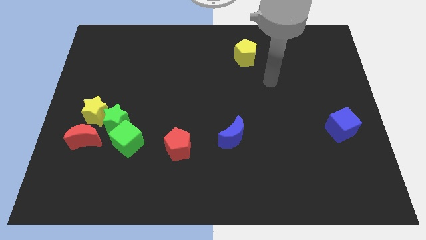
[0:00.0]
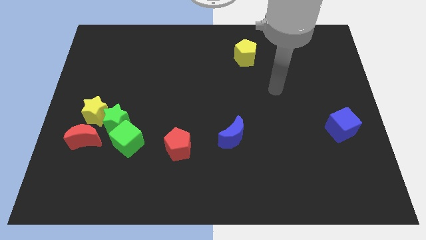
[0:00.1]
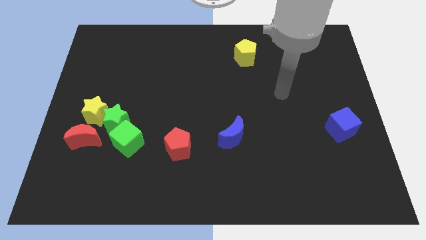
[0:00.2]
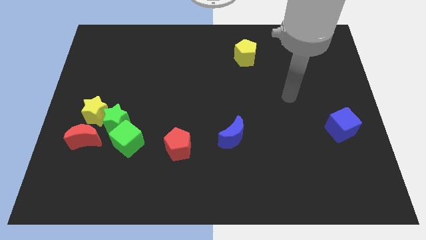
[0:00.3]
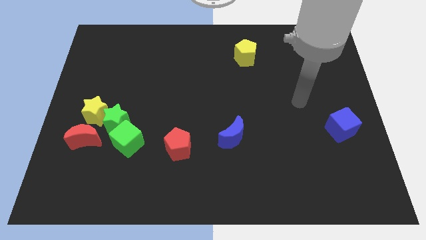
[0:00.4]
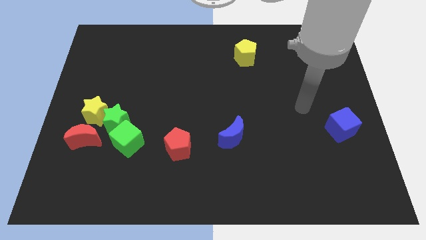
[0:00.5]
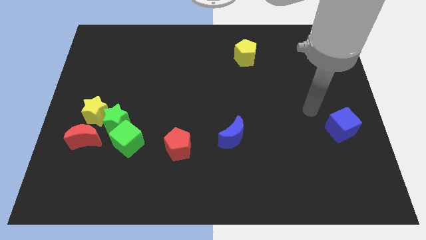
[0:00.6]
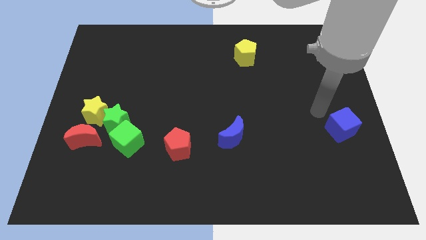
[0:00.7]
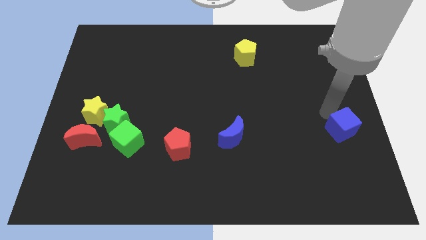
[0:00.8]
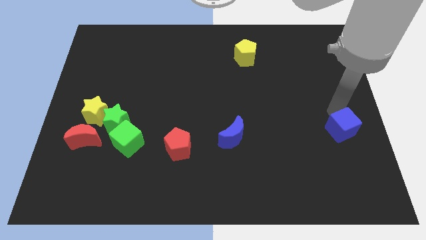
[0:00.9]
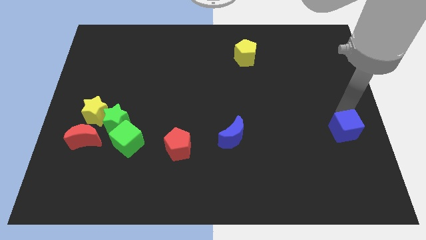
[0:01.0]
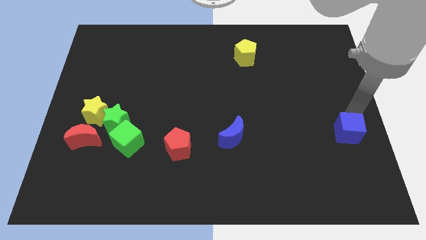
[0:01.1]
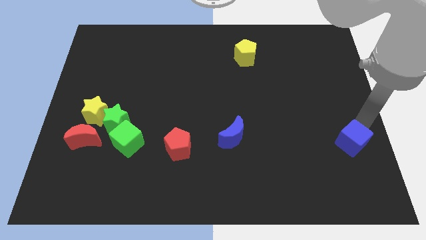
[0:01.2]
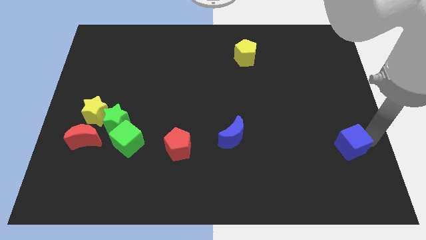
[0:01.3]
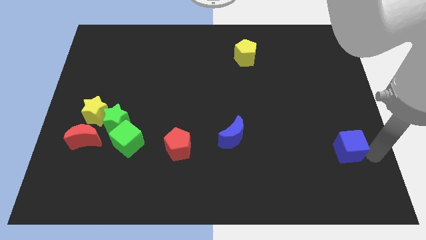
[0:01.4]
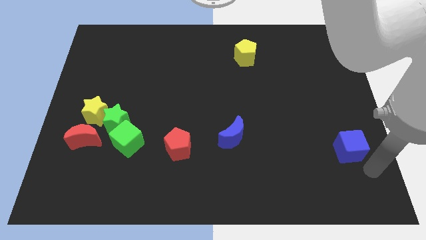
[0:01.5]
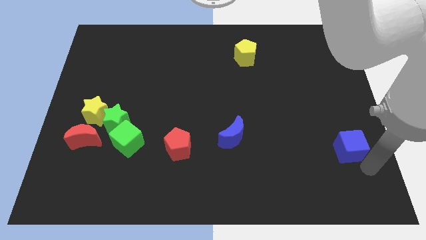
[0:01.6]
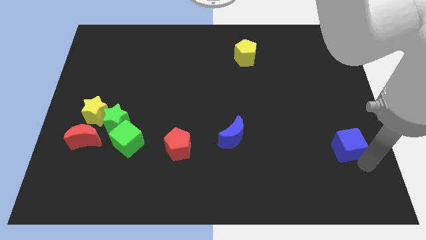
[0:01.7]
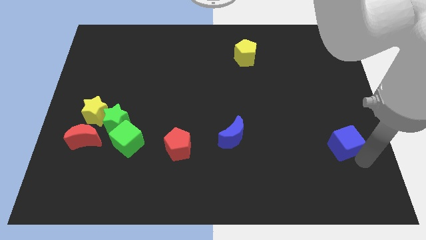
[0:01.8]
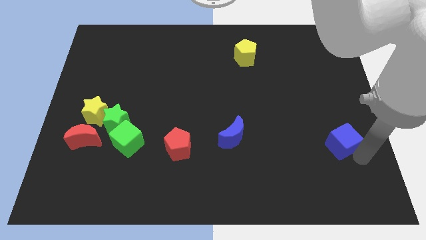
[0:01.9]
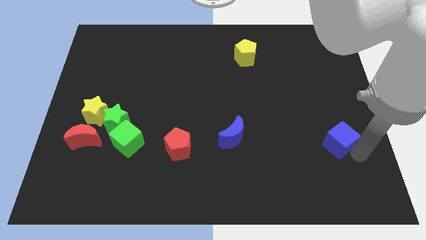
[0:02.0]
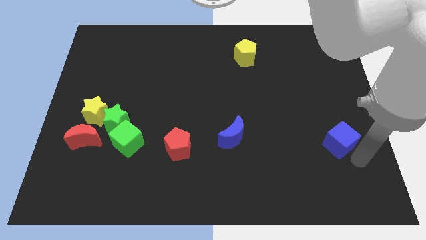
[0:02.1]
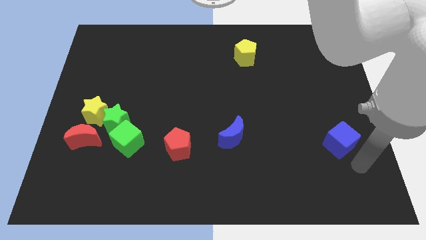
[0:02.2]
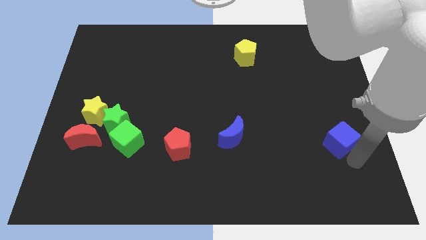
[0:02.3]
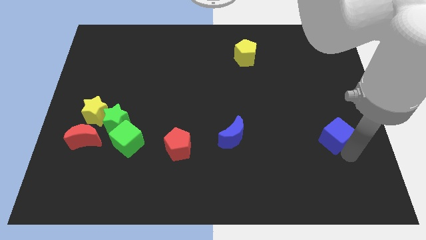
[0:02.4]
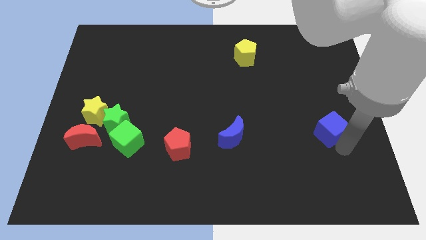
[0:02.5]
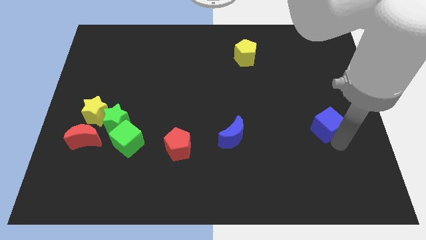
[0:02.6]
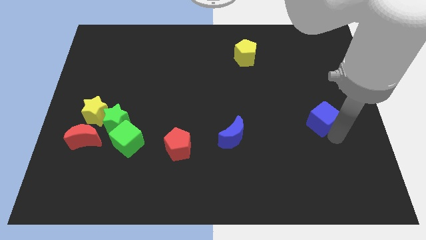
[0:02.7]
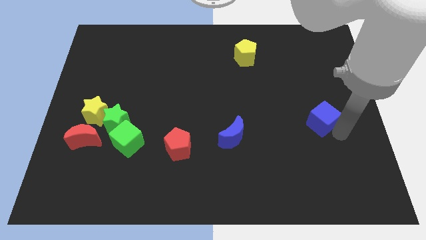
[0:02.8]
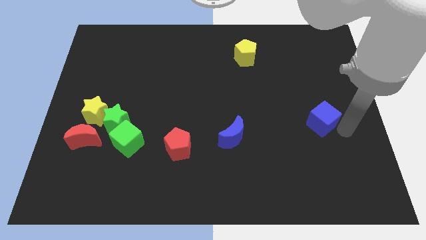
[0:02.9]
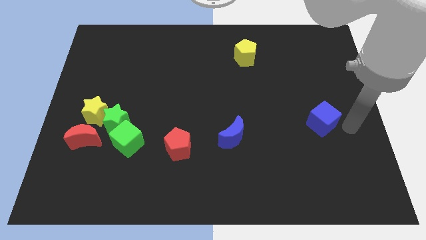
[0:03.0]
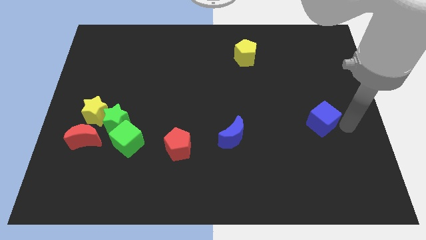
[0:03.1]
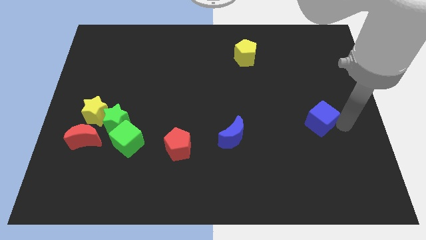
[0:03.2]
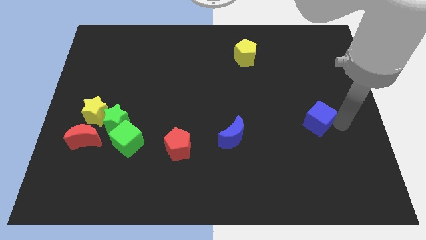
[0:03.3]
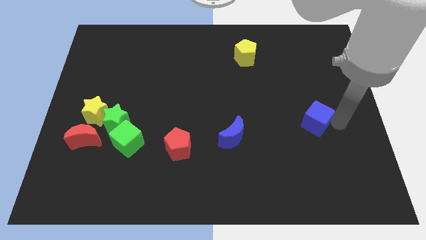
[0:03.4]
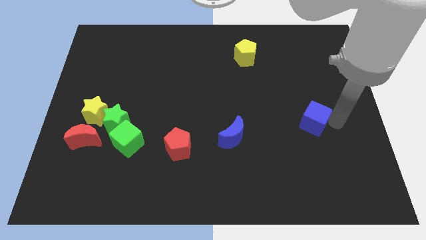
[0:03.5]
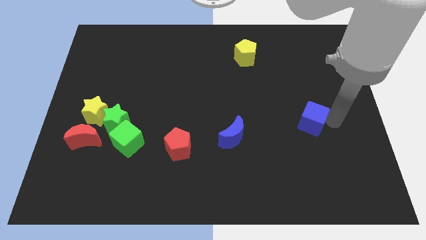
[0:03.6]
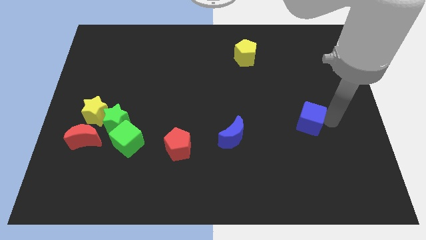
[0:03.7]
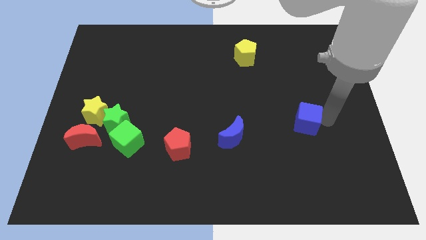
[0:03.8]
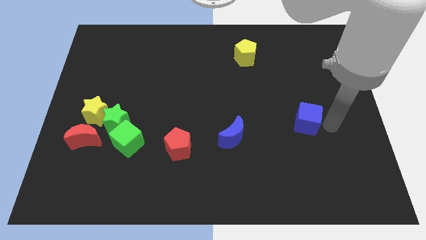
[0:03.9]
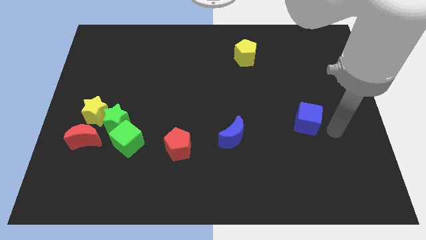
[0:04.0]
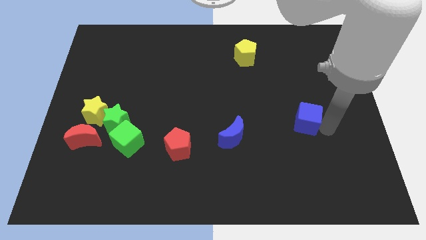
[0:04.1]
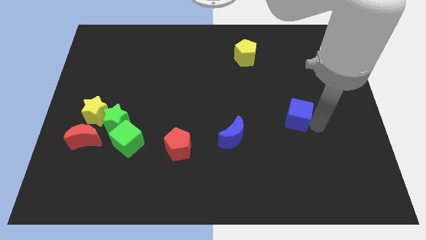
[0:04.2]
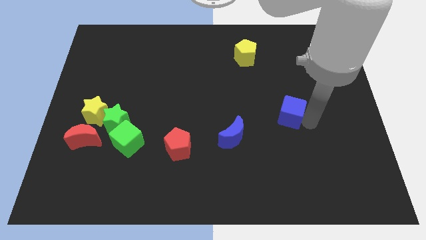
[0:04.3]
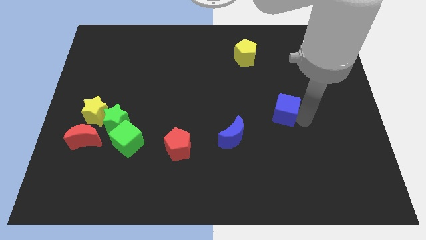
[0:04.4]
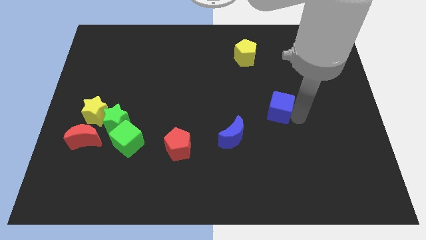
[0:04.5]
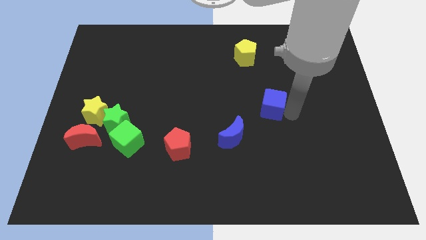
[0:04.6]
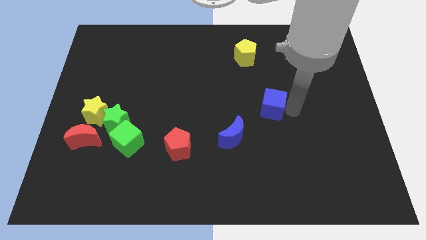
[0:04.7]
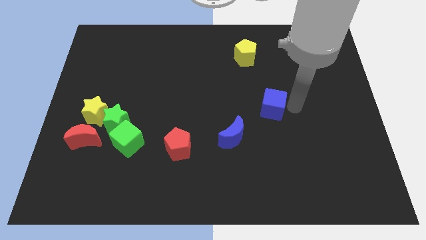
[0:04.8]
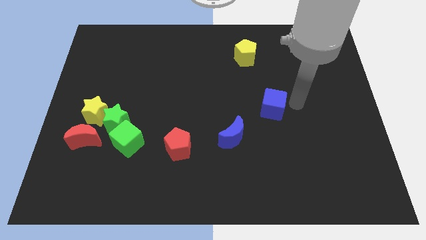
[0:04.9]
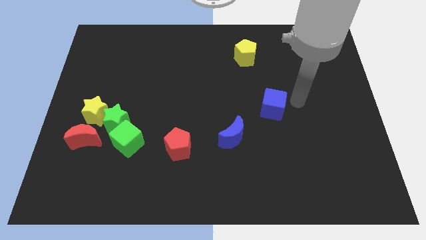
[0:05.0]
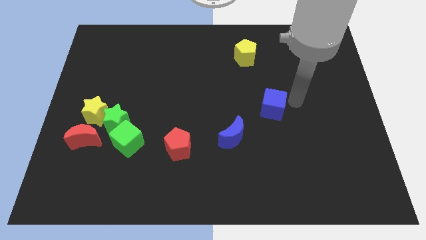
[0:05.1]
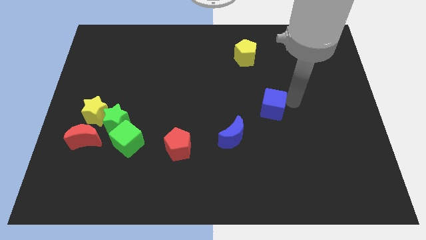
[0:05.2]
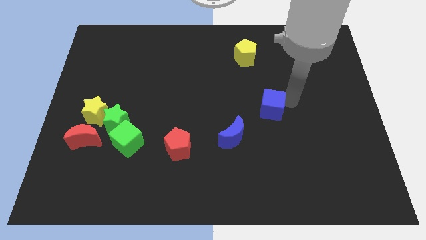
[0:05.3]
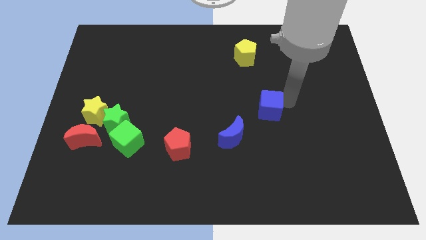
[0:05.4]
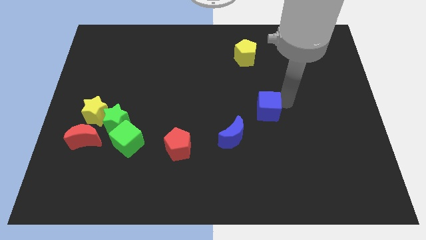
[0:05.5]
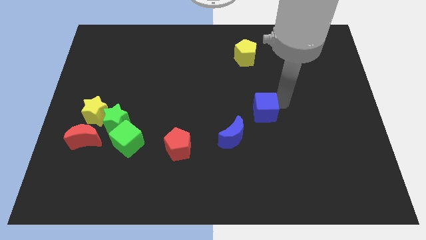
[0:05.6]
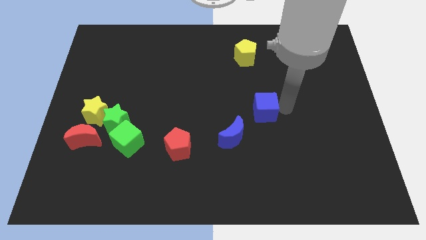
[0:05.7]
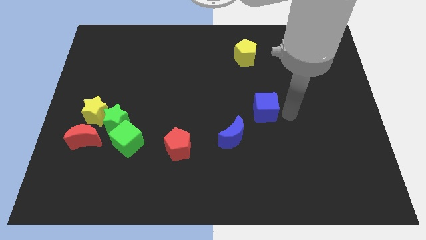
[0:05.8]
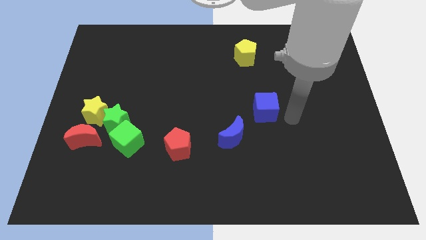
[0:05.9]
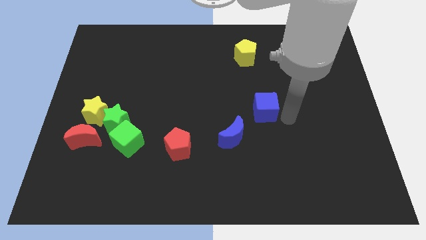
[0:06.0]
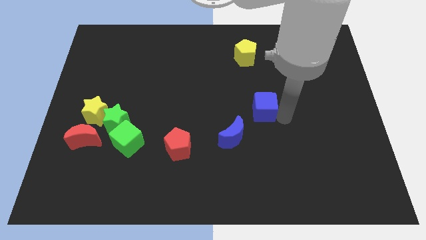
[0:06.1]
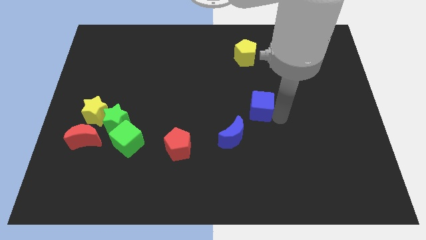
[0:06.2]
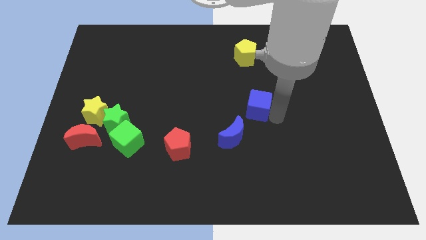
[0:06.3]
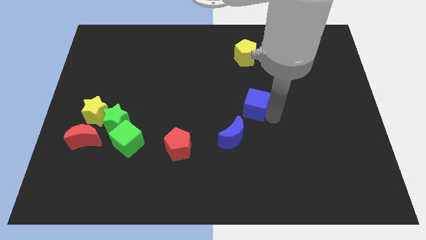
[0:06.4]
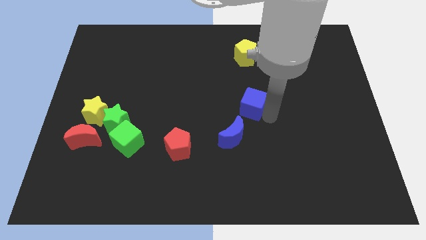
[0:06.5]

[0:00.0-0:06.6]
put the blue cube to the top of the blue moon
